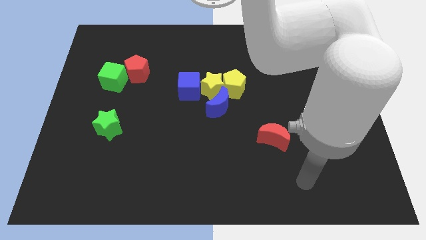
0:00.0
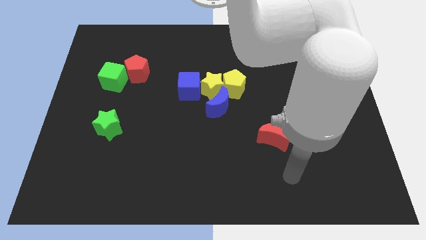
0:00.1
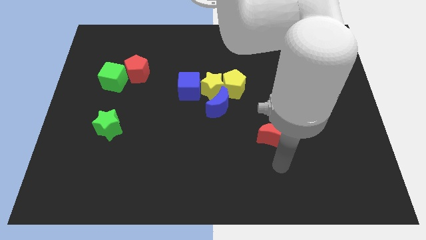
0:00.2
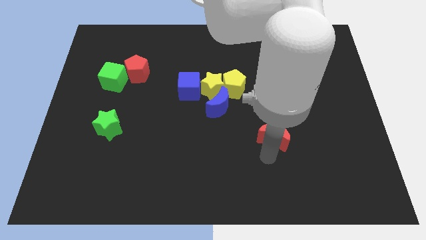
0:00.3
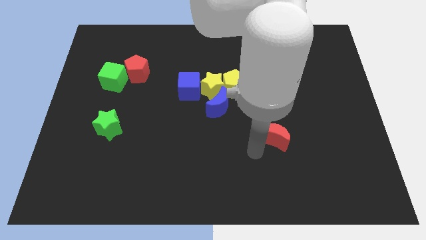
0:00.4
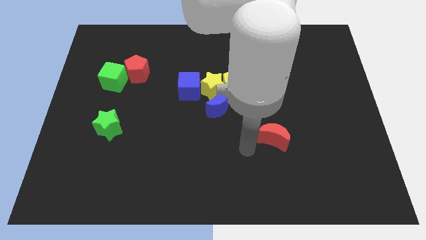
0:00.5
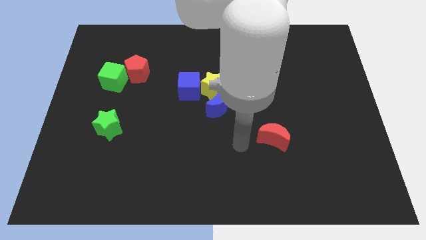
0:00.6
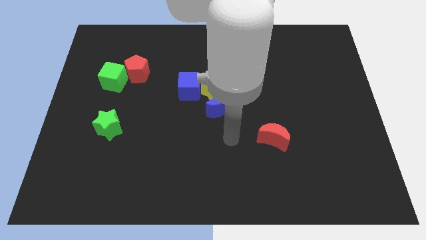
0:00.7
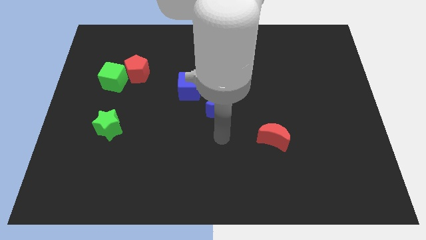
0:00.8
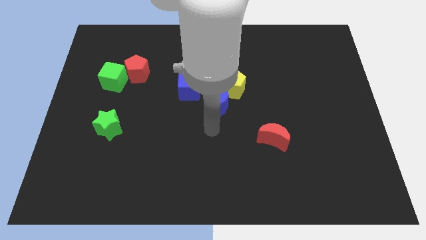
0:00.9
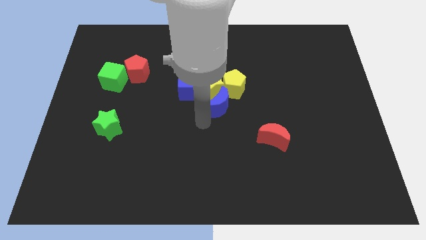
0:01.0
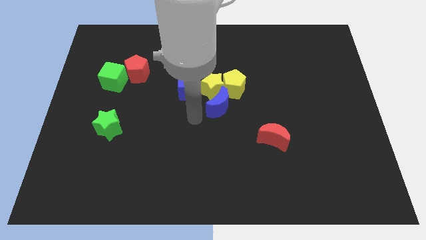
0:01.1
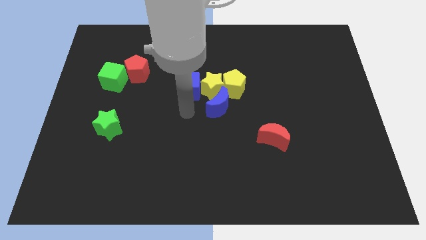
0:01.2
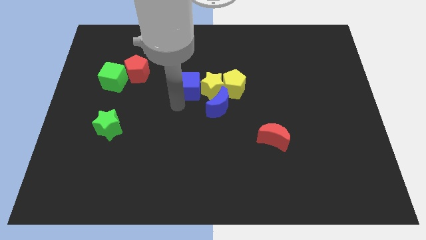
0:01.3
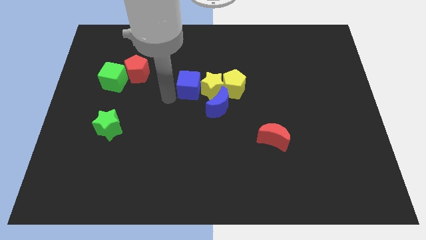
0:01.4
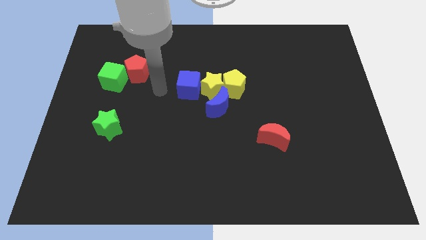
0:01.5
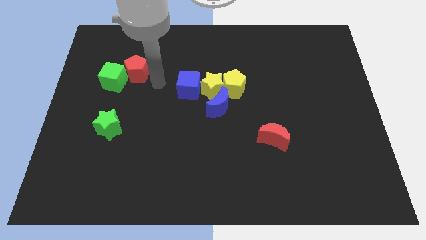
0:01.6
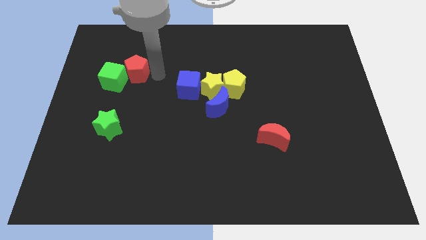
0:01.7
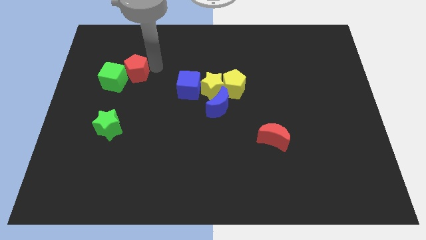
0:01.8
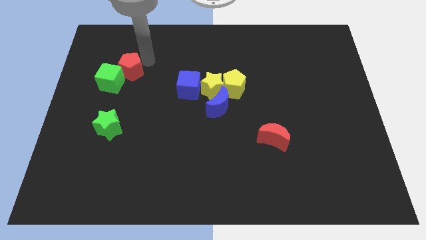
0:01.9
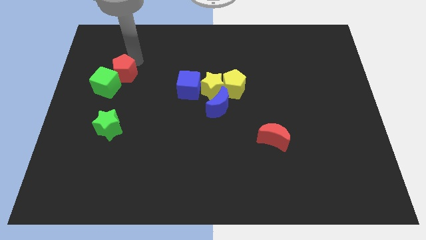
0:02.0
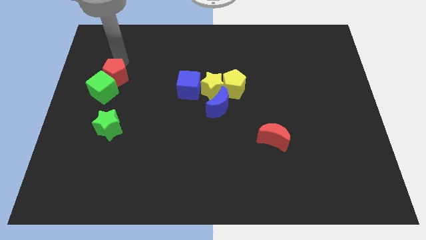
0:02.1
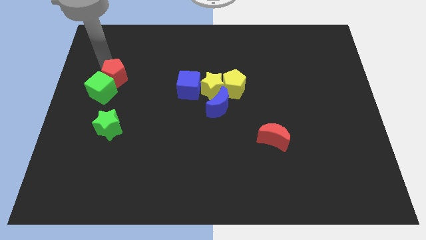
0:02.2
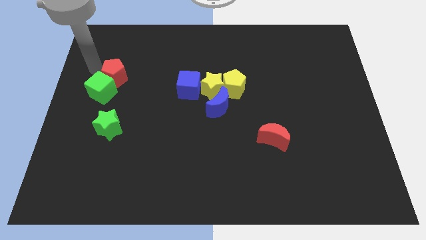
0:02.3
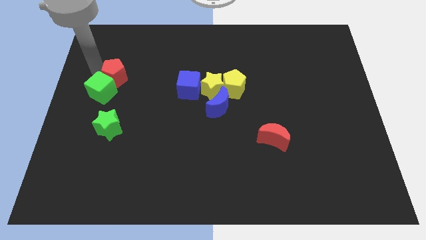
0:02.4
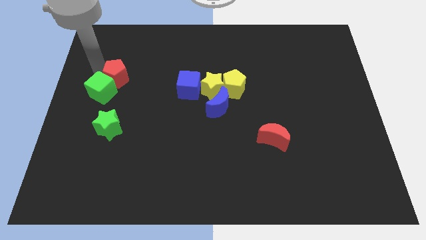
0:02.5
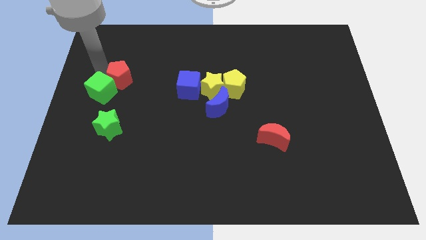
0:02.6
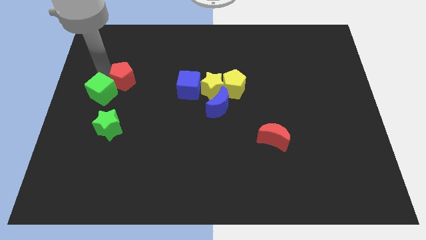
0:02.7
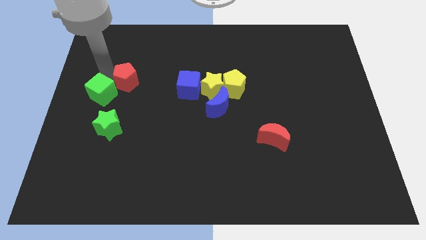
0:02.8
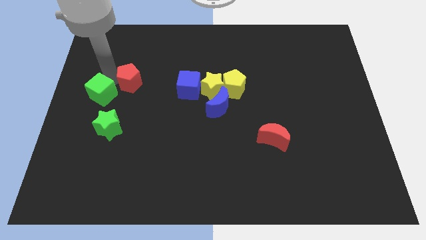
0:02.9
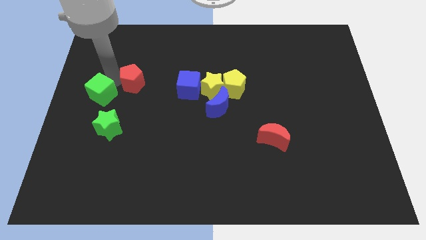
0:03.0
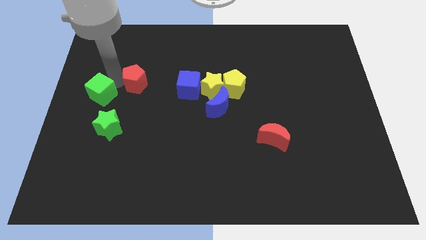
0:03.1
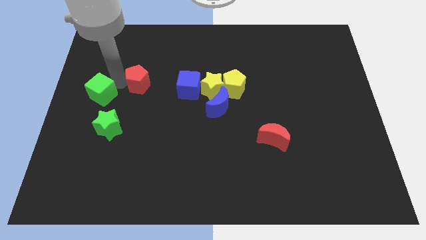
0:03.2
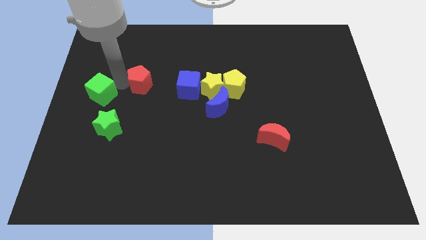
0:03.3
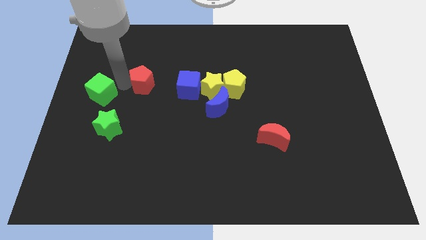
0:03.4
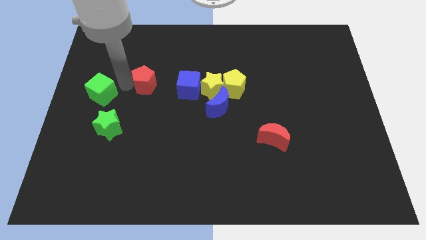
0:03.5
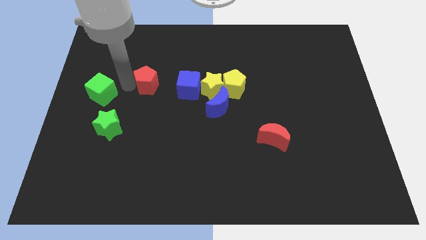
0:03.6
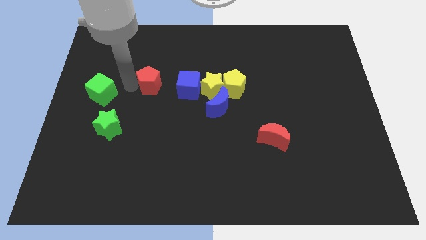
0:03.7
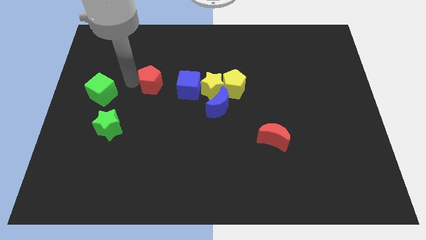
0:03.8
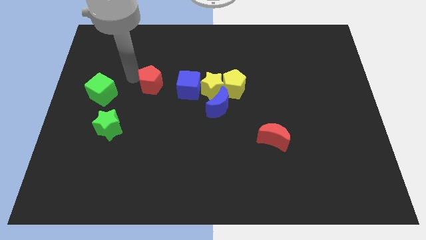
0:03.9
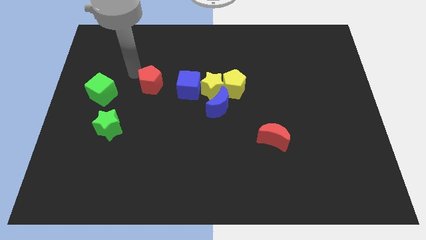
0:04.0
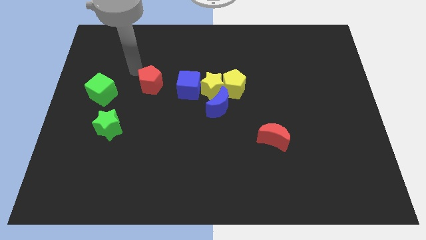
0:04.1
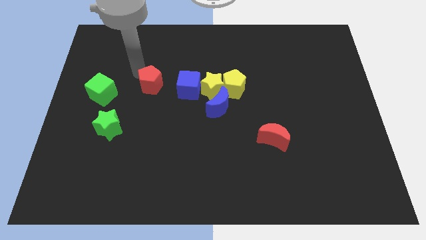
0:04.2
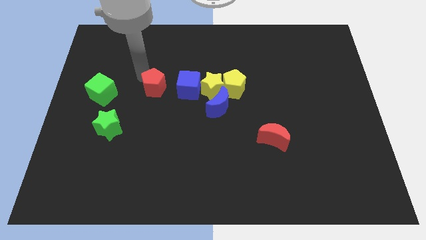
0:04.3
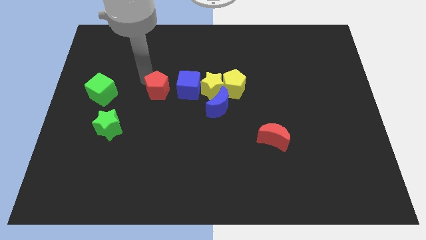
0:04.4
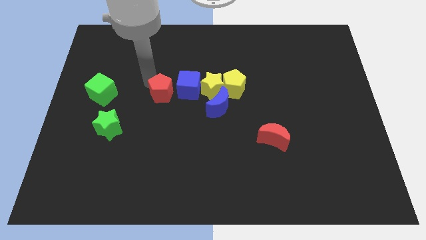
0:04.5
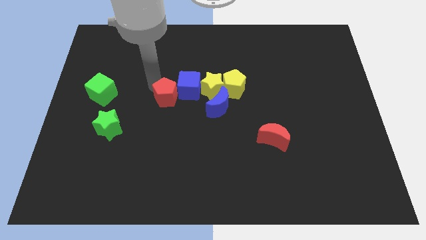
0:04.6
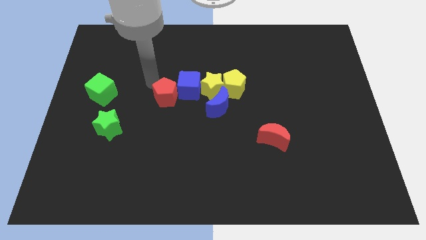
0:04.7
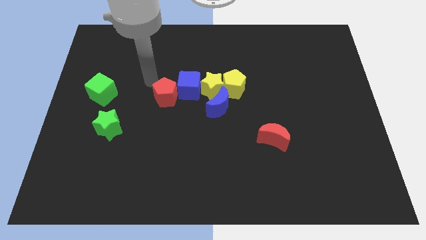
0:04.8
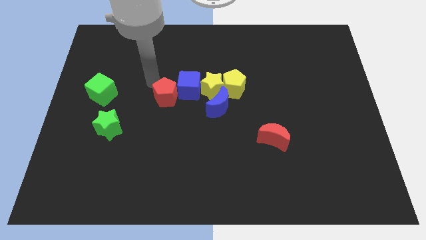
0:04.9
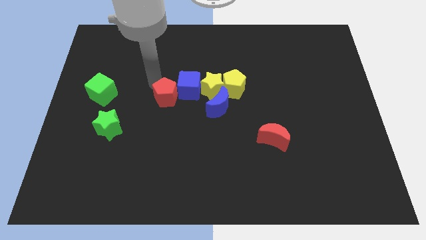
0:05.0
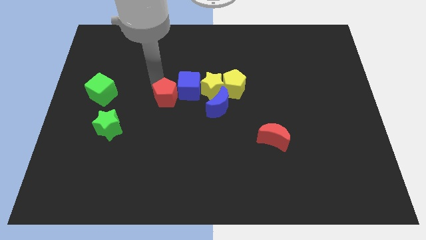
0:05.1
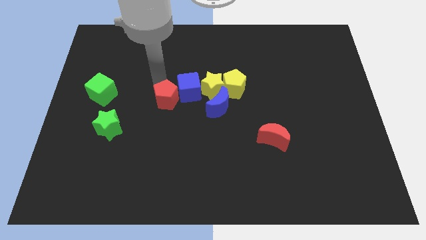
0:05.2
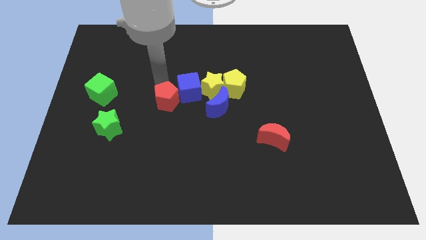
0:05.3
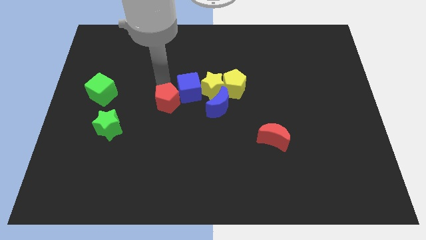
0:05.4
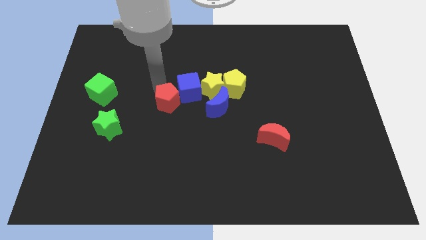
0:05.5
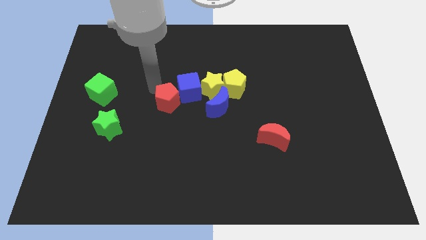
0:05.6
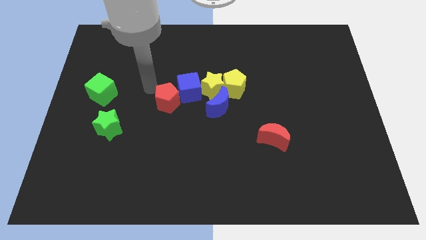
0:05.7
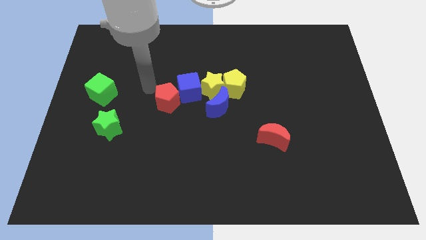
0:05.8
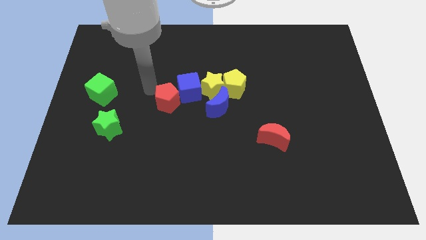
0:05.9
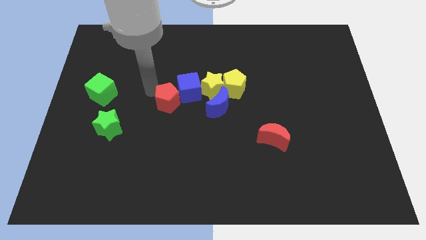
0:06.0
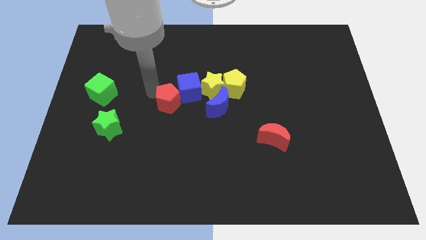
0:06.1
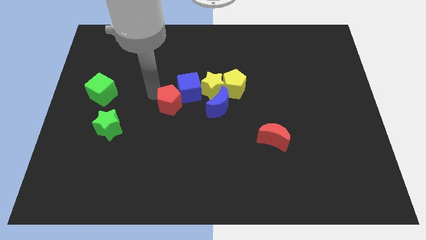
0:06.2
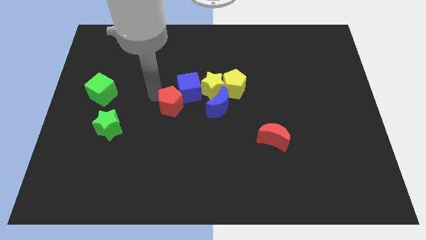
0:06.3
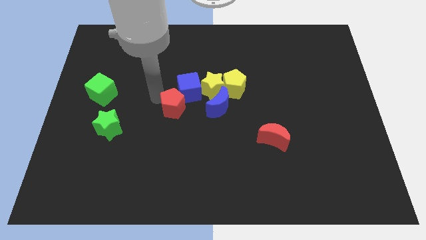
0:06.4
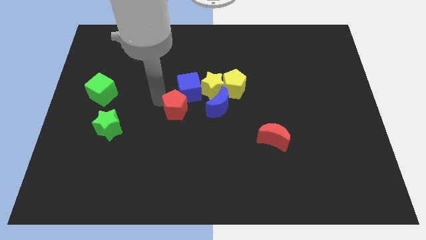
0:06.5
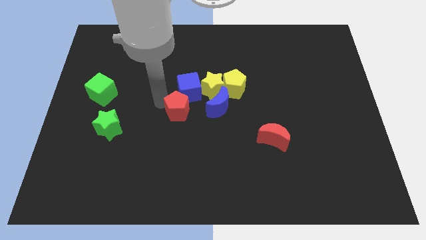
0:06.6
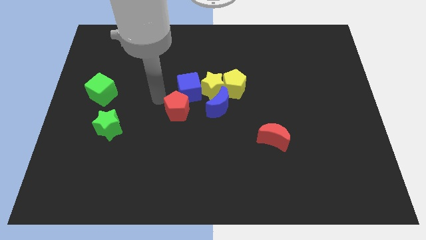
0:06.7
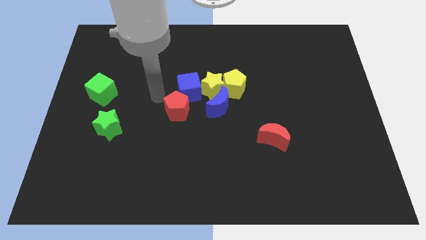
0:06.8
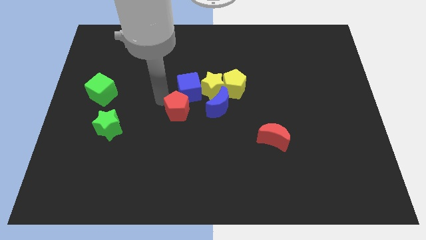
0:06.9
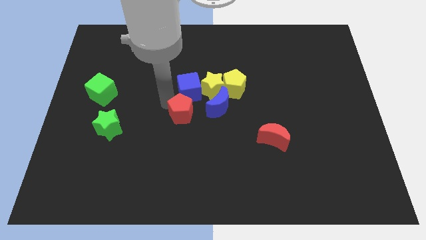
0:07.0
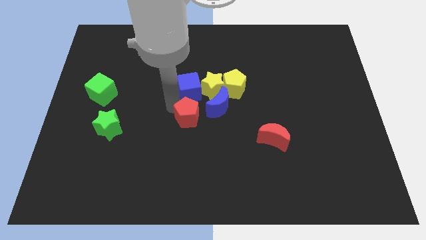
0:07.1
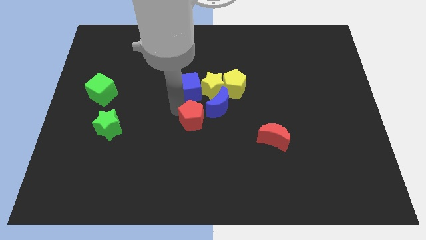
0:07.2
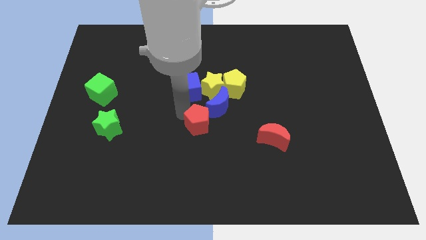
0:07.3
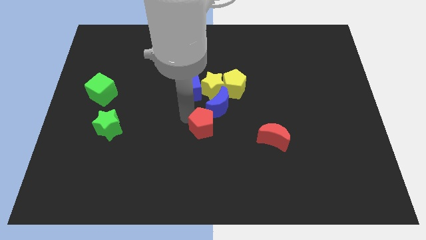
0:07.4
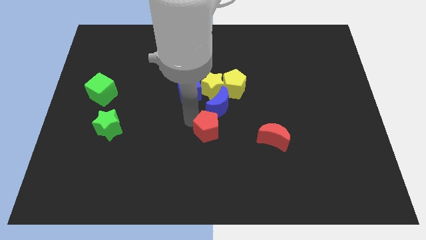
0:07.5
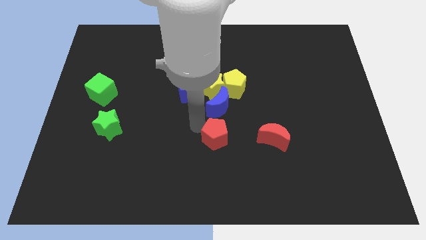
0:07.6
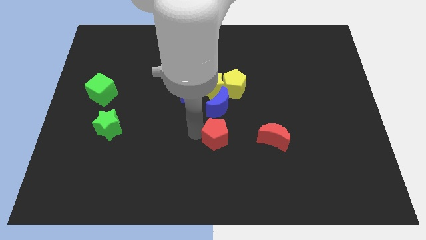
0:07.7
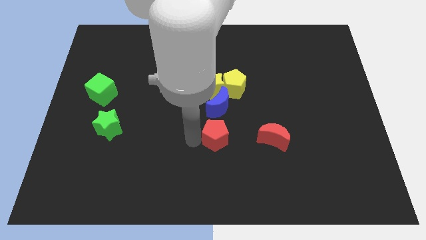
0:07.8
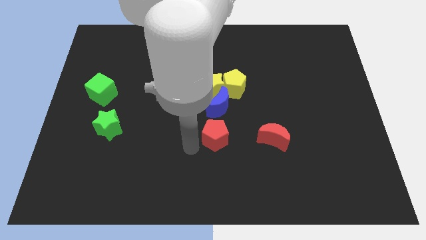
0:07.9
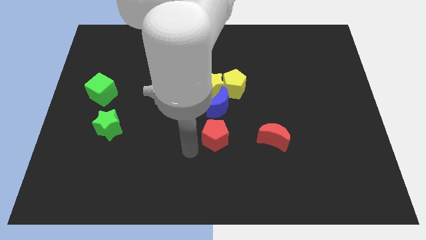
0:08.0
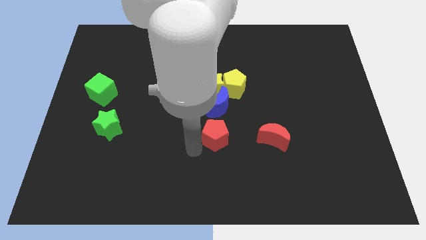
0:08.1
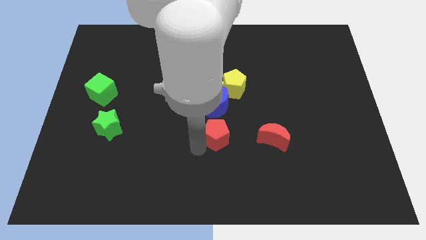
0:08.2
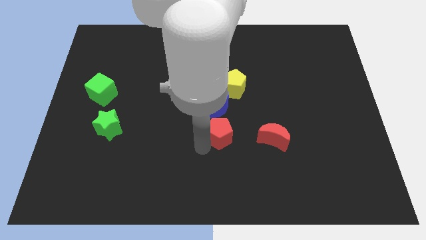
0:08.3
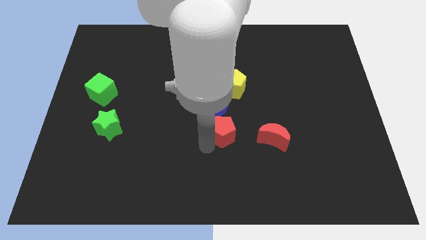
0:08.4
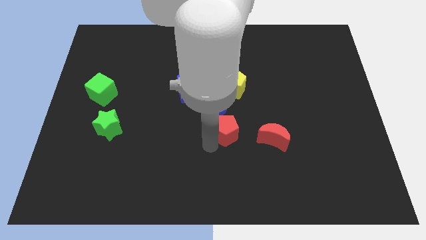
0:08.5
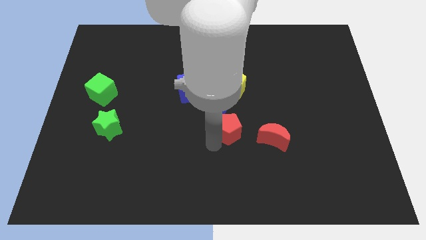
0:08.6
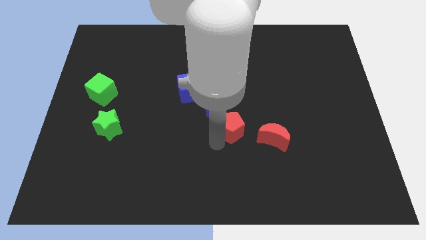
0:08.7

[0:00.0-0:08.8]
move the red pentagon diagonally up and to the left of the red moon
